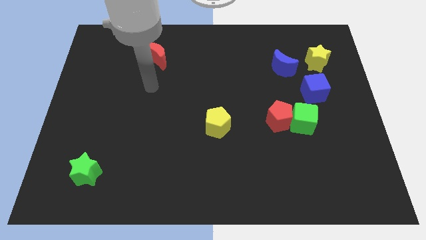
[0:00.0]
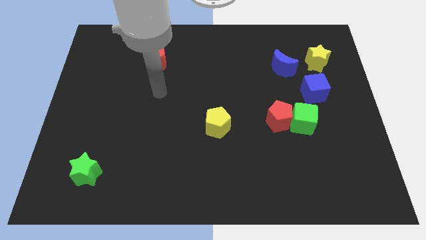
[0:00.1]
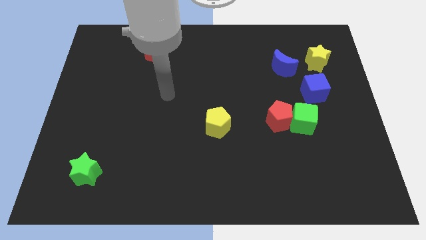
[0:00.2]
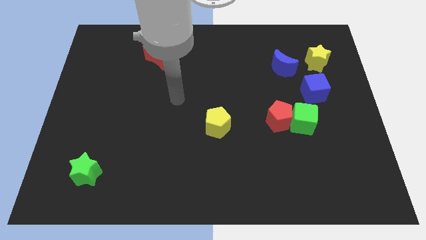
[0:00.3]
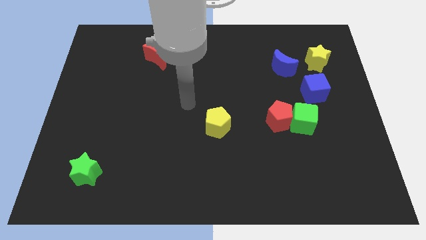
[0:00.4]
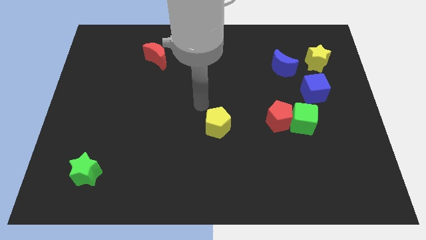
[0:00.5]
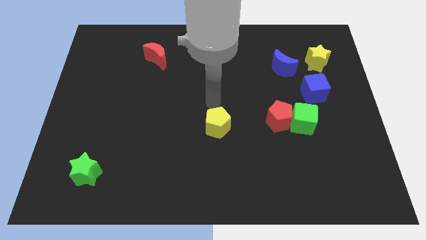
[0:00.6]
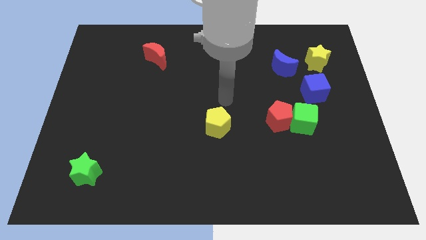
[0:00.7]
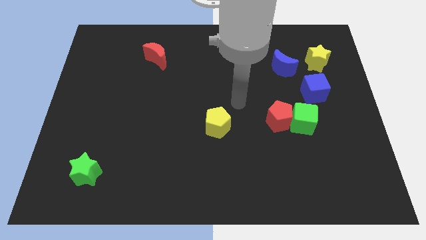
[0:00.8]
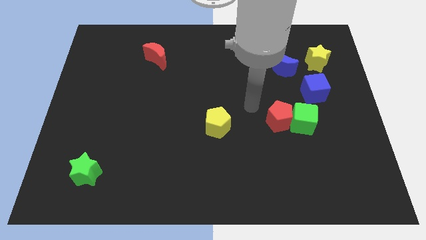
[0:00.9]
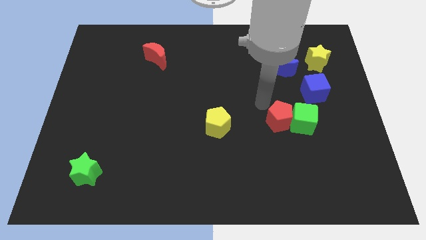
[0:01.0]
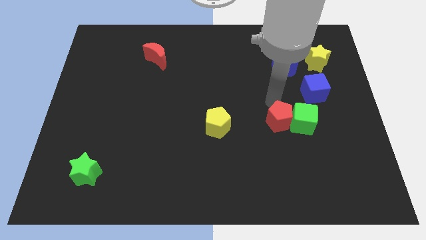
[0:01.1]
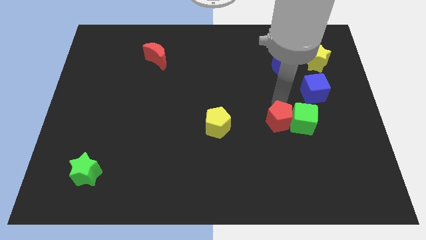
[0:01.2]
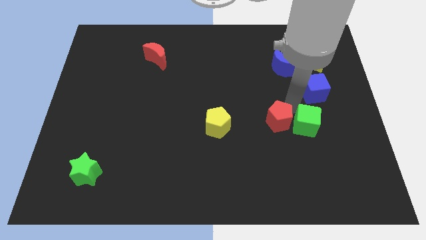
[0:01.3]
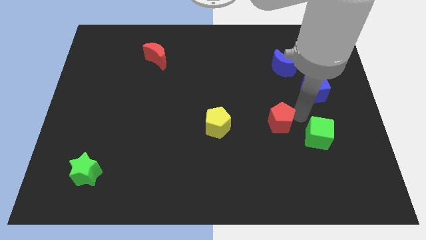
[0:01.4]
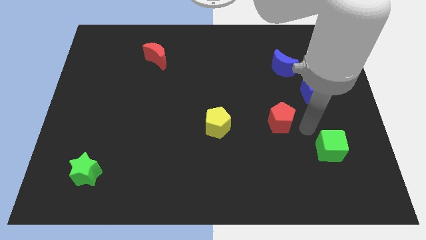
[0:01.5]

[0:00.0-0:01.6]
move the red pentagon away from the green cube

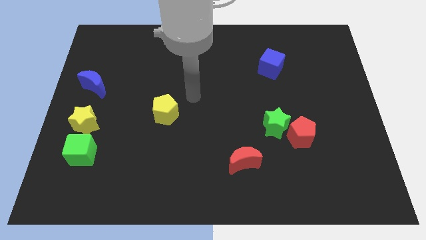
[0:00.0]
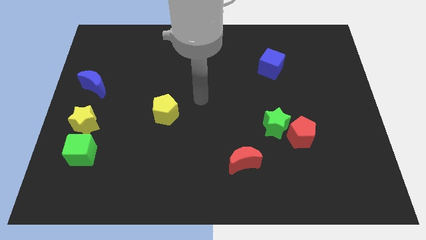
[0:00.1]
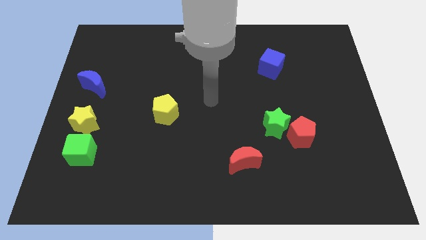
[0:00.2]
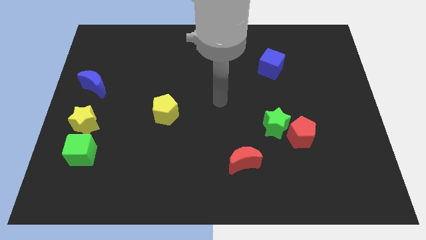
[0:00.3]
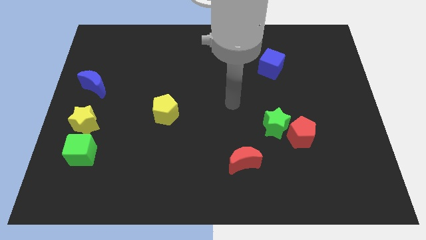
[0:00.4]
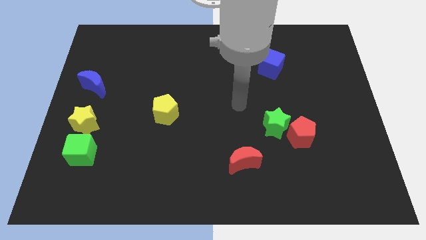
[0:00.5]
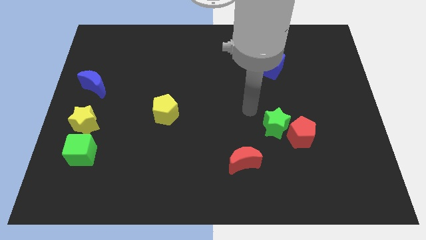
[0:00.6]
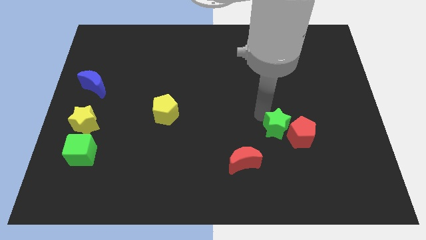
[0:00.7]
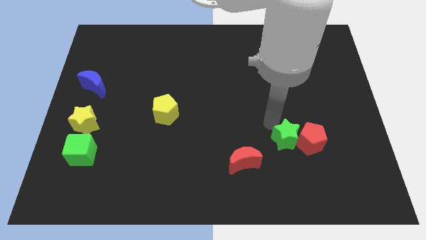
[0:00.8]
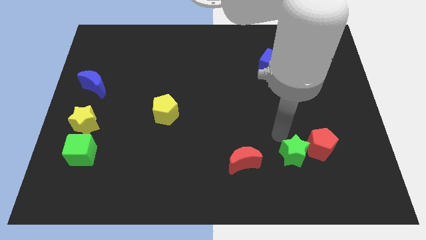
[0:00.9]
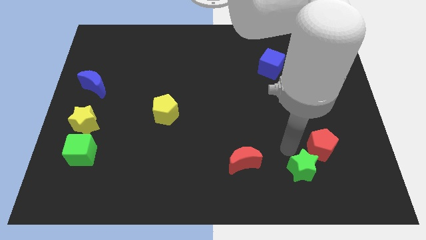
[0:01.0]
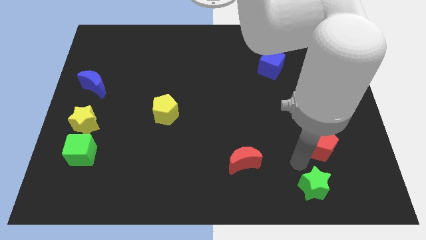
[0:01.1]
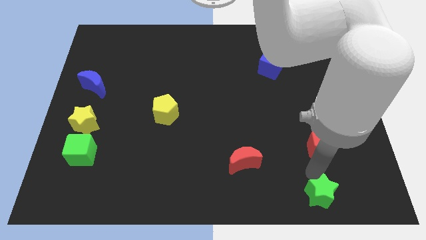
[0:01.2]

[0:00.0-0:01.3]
move the red pentagon away from the green star

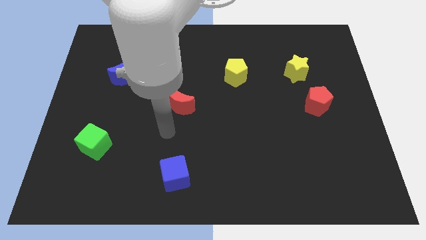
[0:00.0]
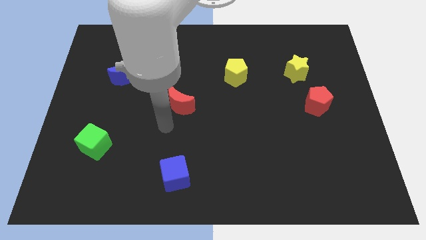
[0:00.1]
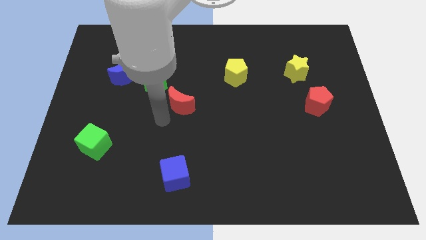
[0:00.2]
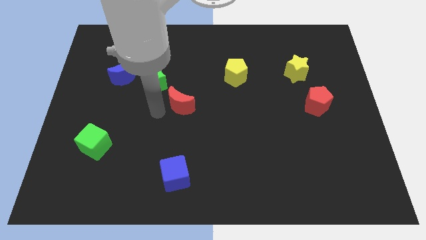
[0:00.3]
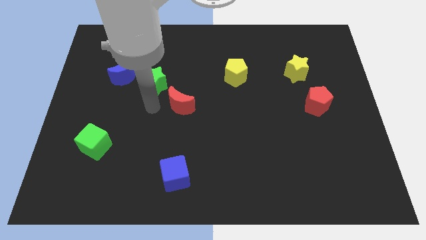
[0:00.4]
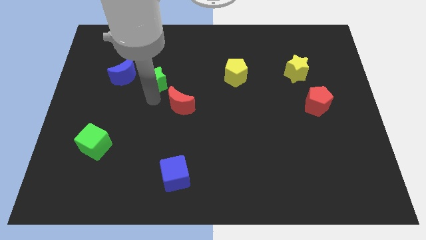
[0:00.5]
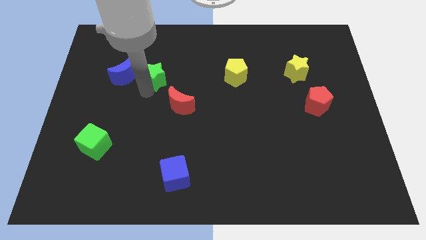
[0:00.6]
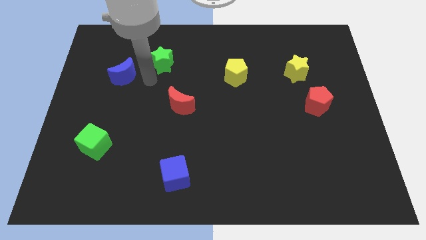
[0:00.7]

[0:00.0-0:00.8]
separate the blue moon from the green star

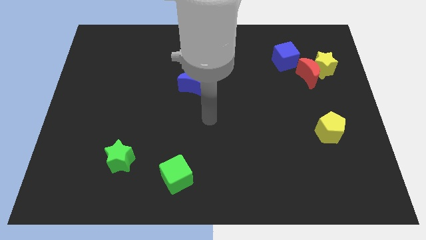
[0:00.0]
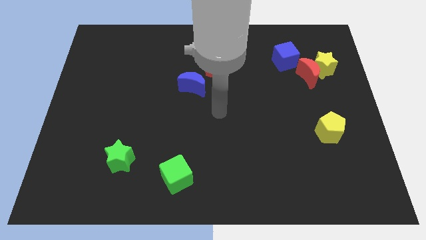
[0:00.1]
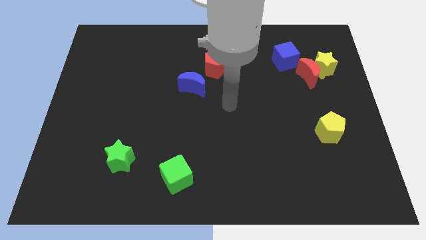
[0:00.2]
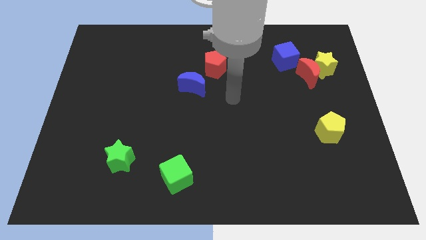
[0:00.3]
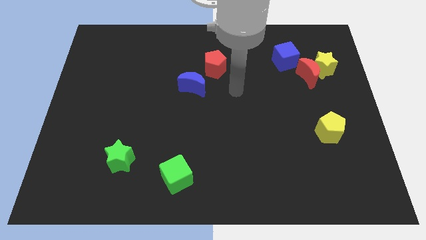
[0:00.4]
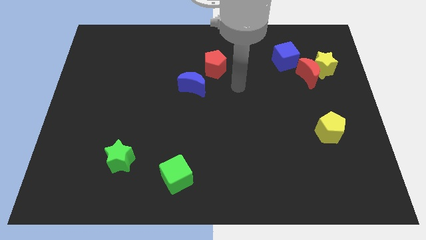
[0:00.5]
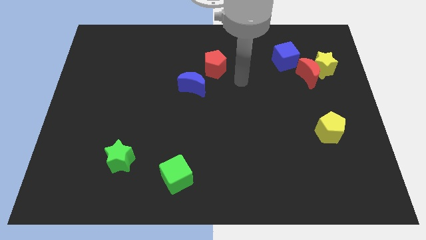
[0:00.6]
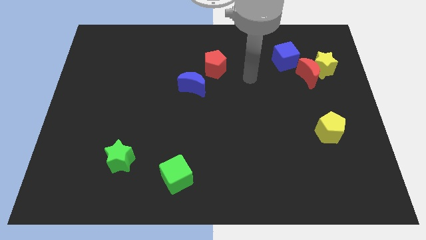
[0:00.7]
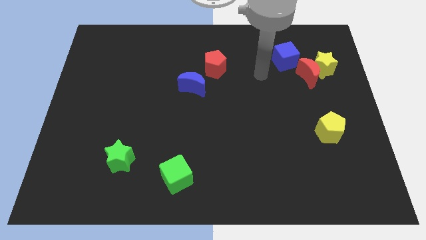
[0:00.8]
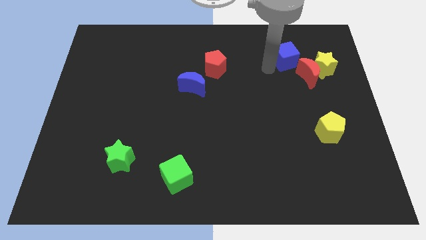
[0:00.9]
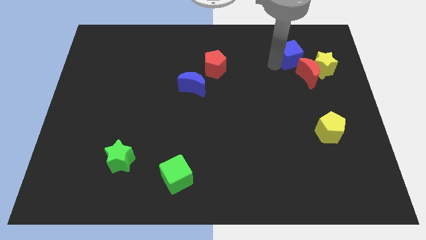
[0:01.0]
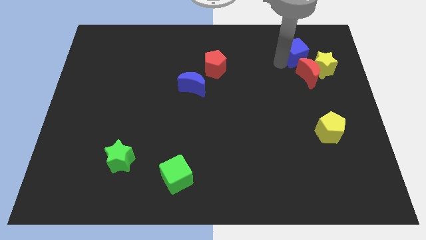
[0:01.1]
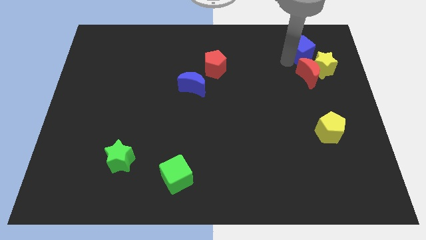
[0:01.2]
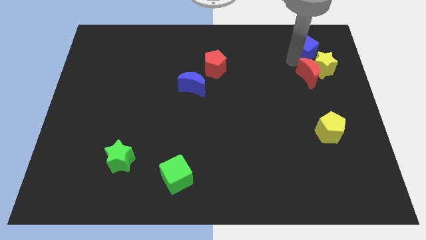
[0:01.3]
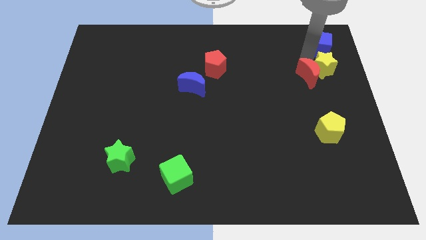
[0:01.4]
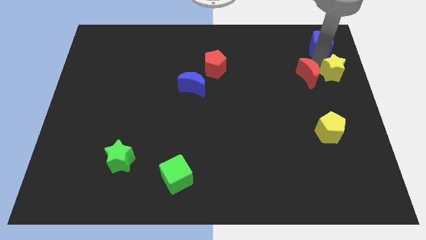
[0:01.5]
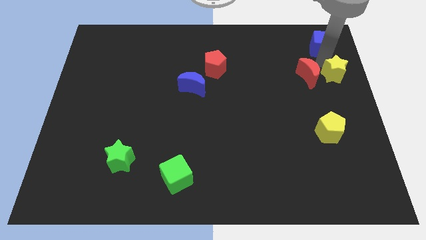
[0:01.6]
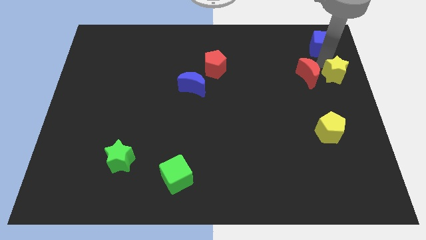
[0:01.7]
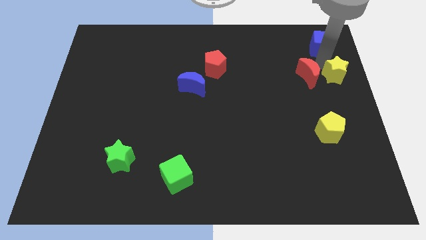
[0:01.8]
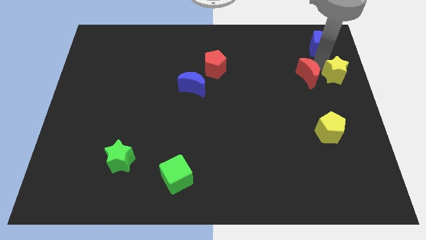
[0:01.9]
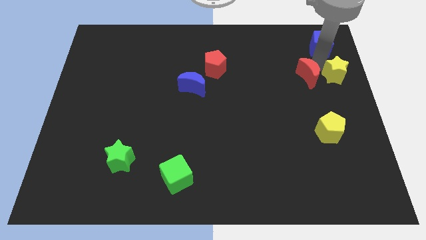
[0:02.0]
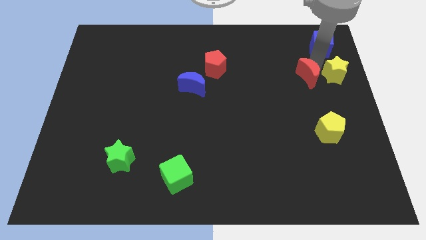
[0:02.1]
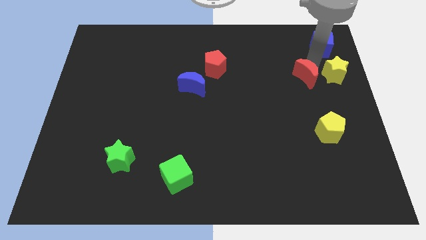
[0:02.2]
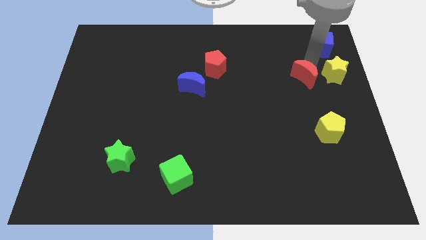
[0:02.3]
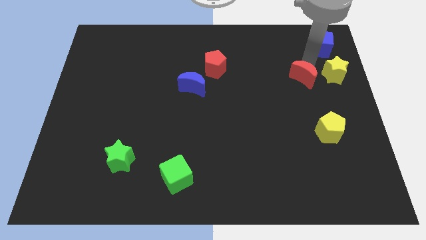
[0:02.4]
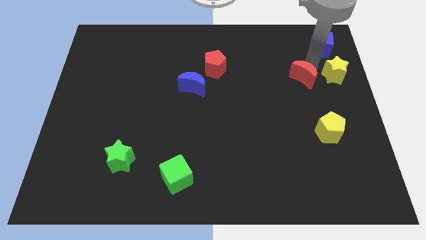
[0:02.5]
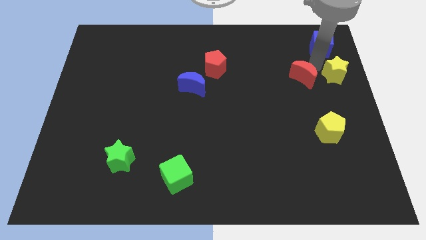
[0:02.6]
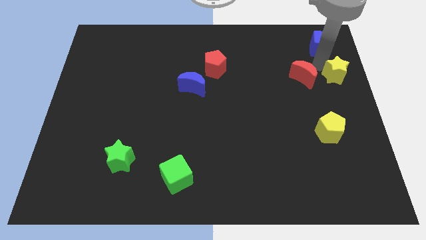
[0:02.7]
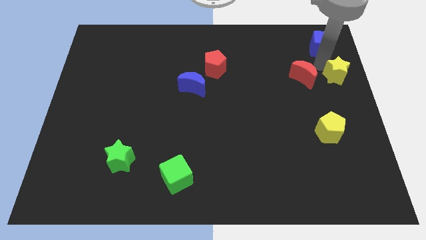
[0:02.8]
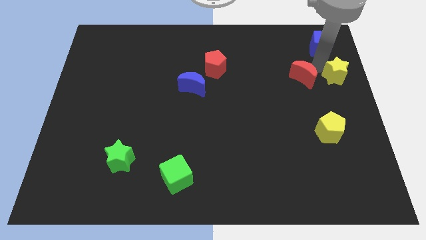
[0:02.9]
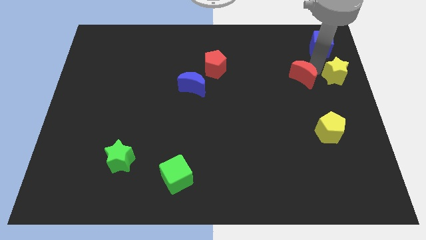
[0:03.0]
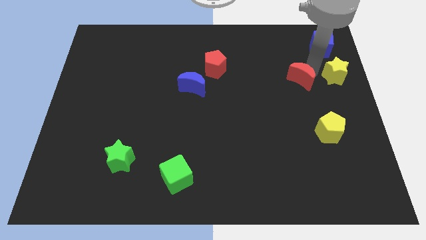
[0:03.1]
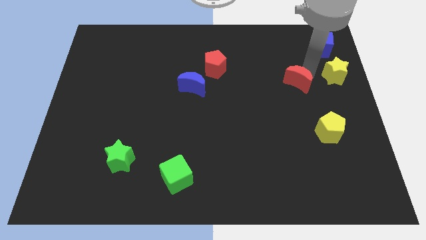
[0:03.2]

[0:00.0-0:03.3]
move the red moon away from the yellow star and blue cube

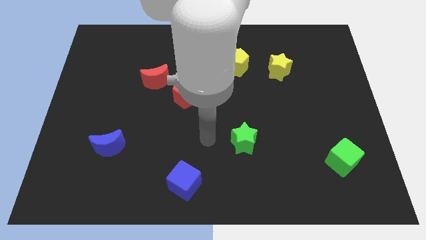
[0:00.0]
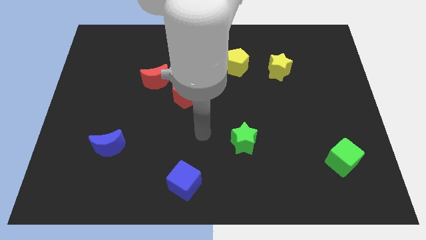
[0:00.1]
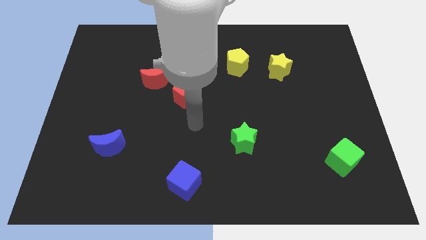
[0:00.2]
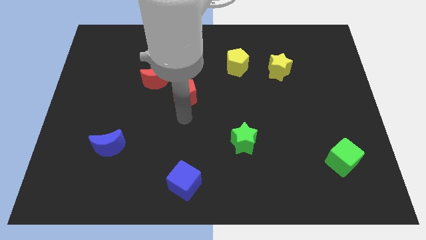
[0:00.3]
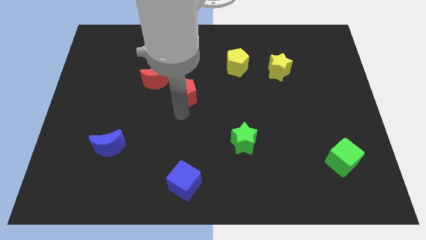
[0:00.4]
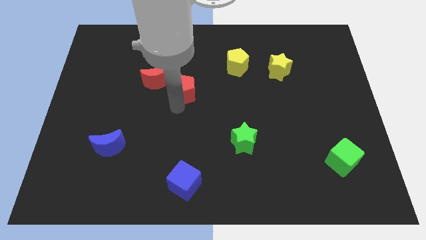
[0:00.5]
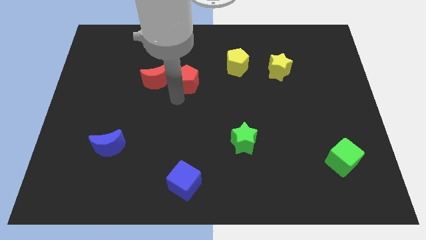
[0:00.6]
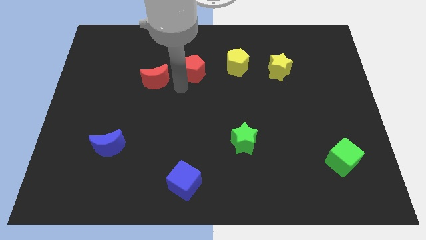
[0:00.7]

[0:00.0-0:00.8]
pull the red moon apart from the red pentagon

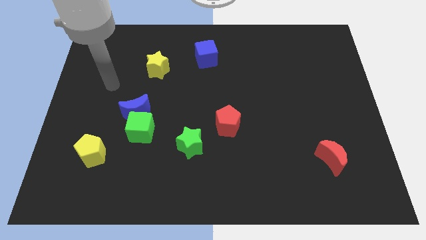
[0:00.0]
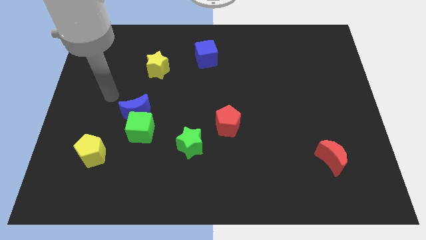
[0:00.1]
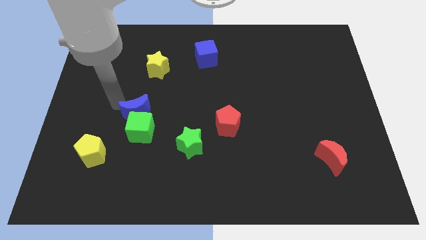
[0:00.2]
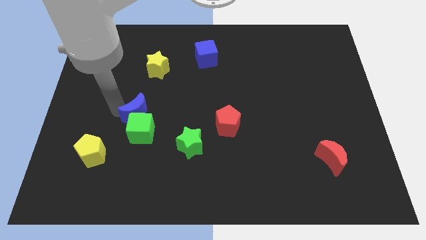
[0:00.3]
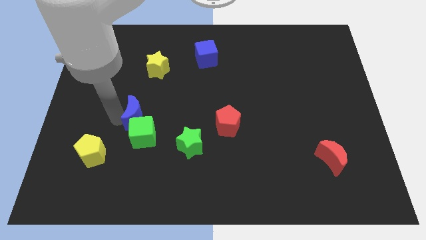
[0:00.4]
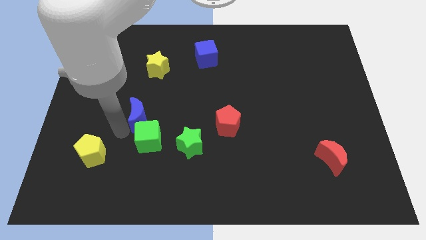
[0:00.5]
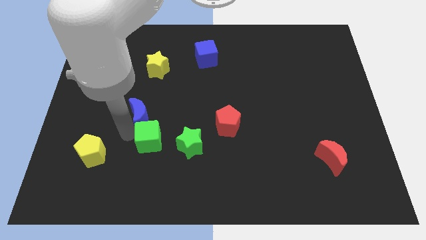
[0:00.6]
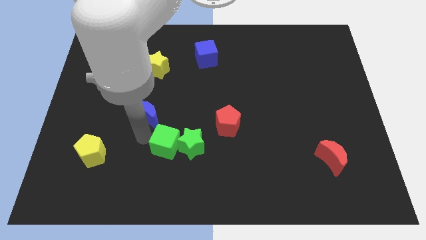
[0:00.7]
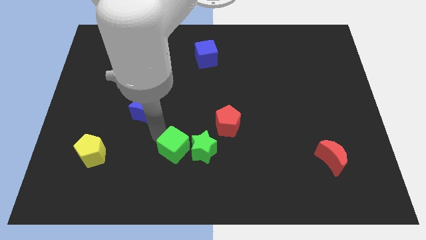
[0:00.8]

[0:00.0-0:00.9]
pull the blue moon apart from the green cube

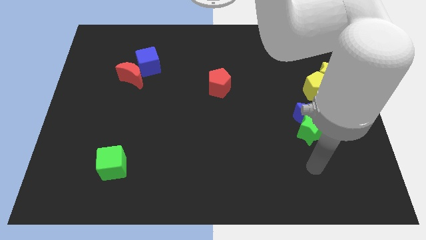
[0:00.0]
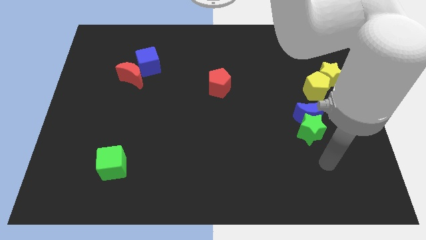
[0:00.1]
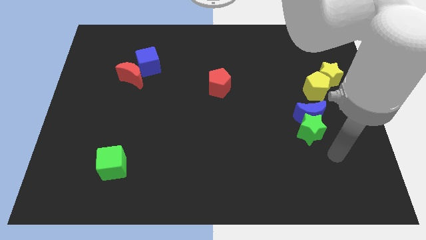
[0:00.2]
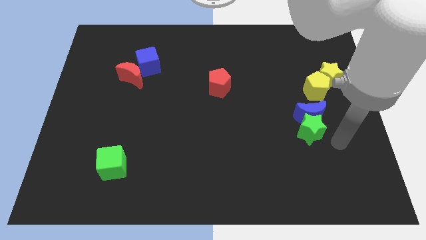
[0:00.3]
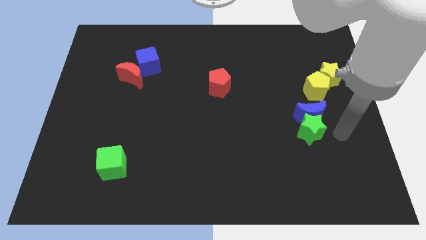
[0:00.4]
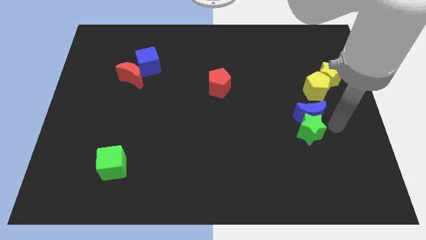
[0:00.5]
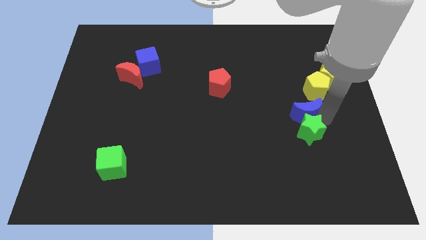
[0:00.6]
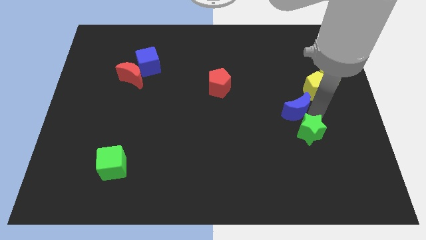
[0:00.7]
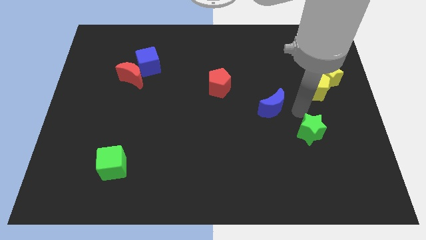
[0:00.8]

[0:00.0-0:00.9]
pull the green star apart from the blue moon
